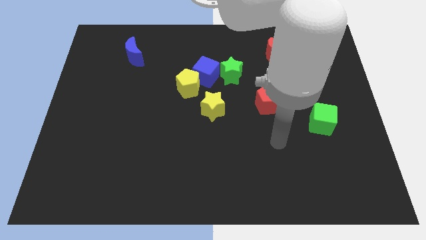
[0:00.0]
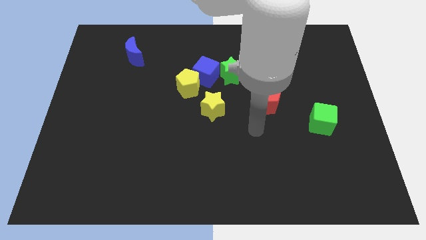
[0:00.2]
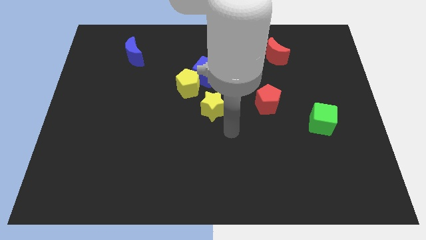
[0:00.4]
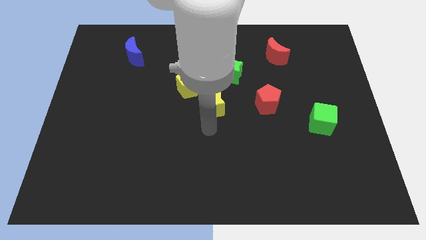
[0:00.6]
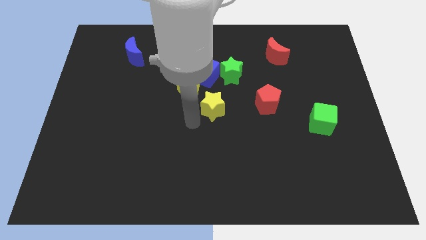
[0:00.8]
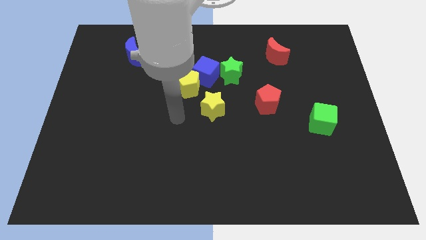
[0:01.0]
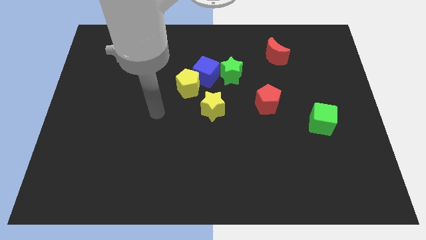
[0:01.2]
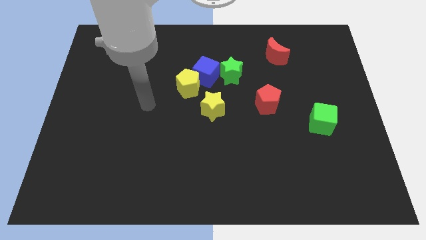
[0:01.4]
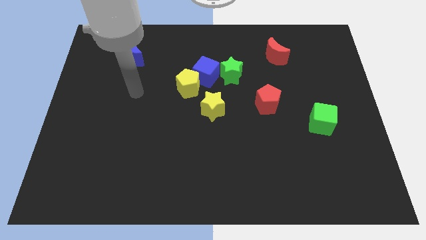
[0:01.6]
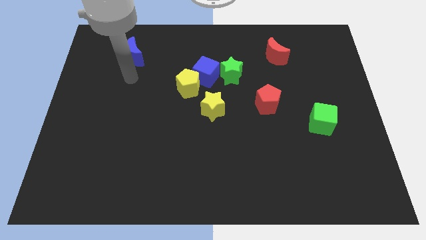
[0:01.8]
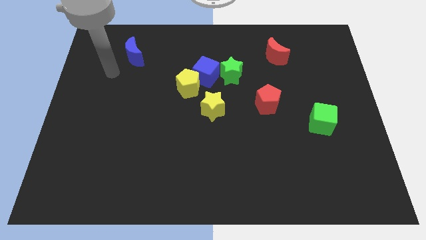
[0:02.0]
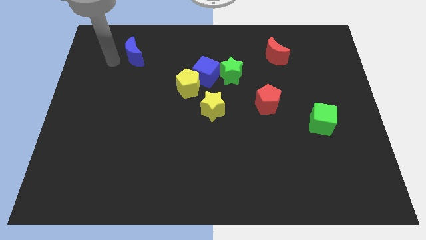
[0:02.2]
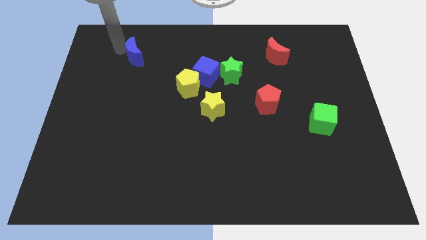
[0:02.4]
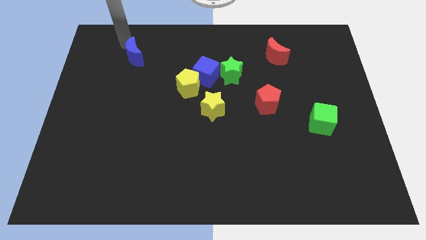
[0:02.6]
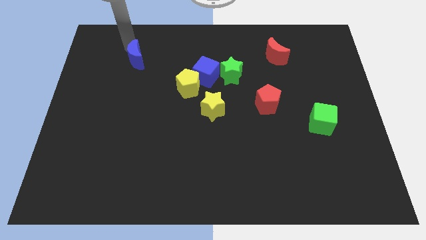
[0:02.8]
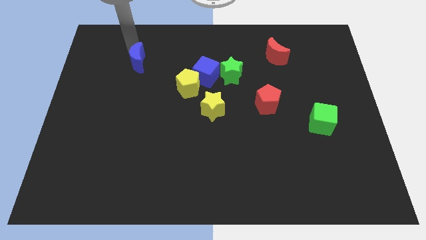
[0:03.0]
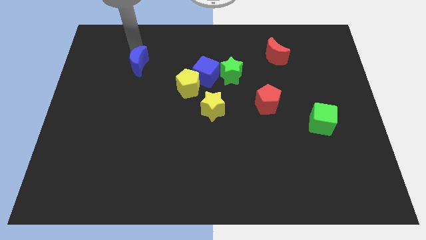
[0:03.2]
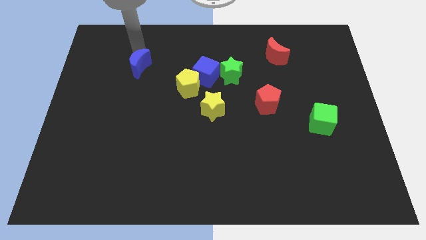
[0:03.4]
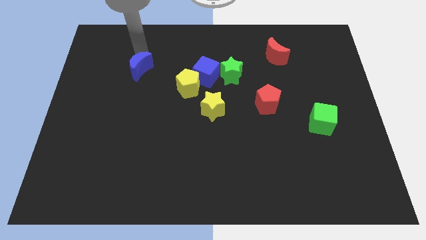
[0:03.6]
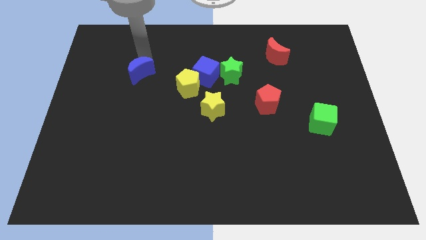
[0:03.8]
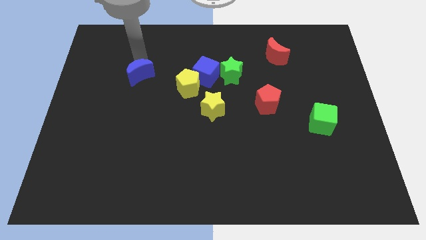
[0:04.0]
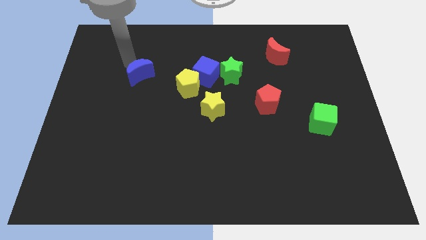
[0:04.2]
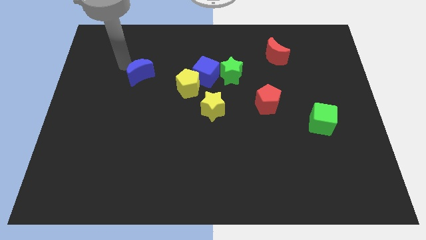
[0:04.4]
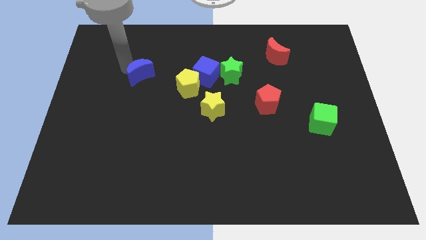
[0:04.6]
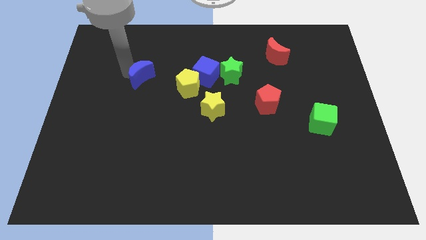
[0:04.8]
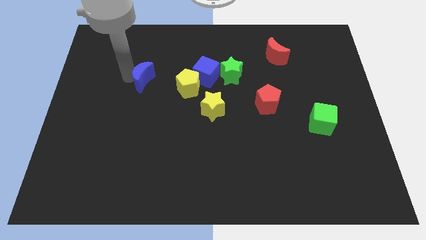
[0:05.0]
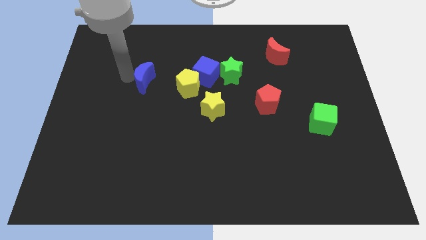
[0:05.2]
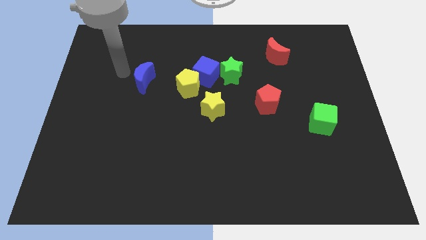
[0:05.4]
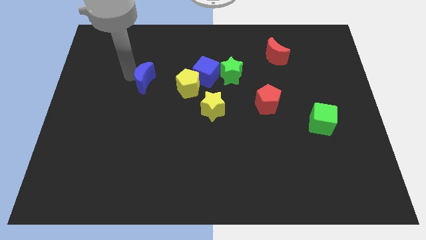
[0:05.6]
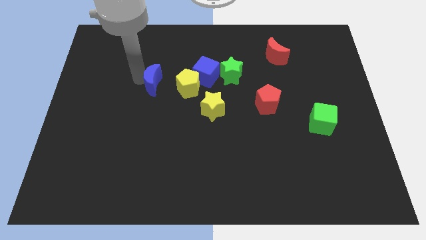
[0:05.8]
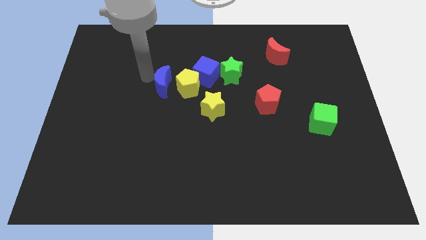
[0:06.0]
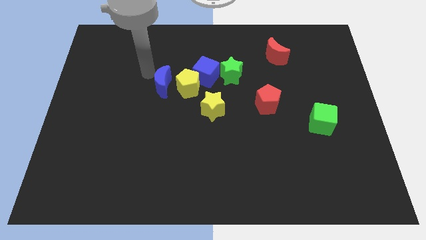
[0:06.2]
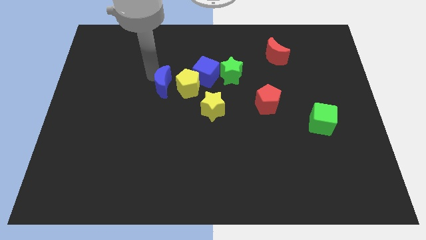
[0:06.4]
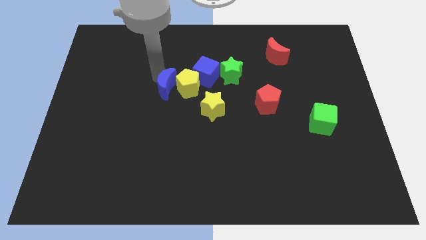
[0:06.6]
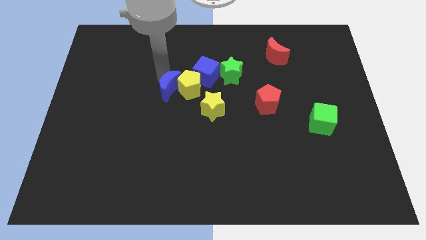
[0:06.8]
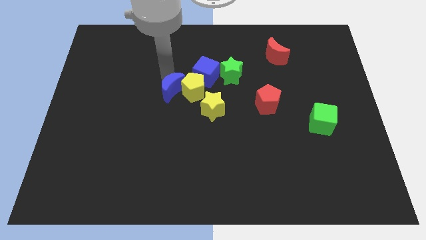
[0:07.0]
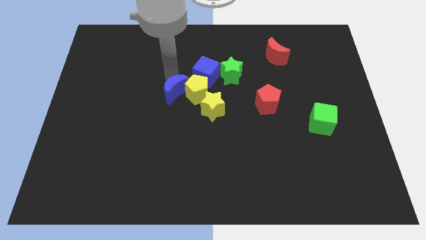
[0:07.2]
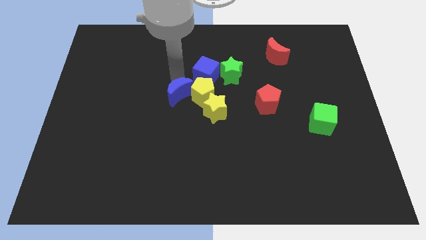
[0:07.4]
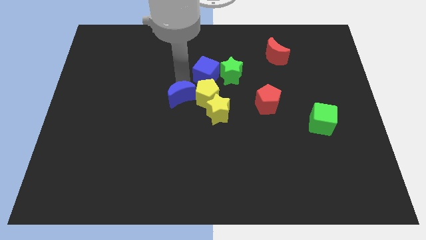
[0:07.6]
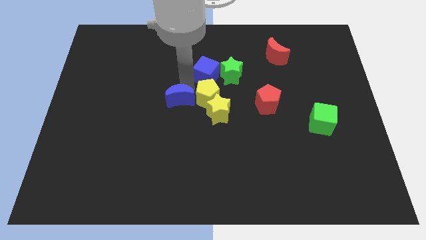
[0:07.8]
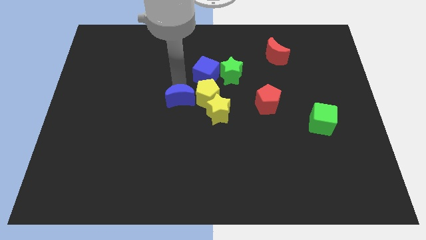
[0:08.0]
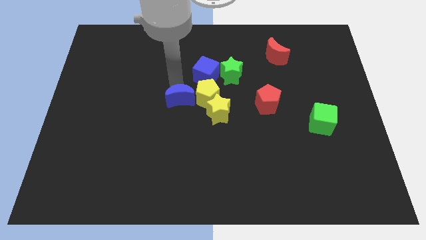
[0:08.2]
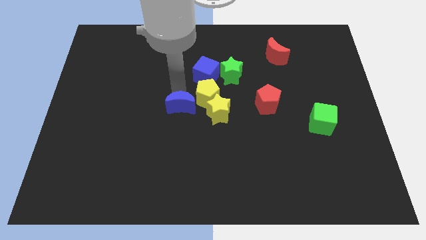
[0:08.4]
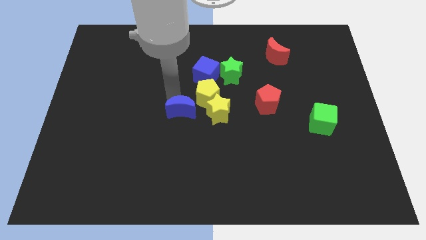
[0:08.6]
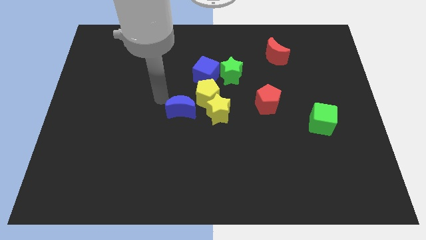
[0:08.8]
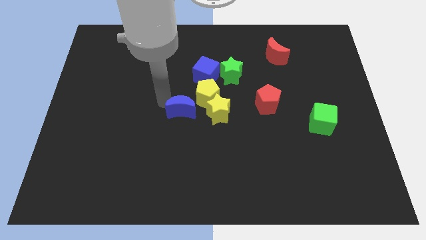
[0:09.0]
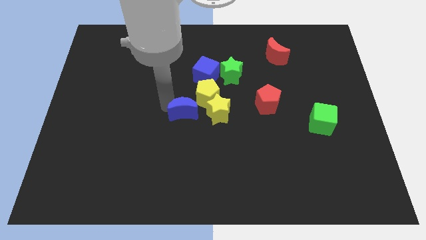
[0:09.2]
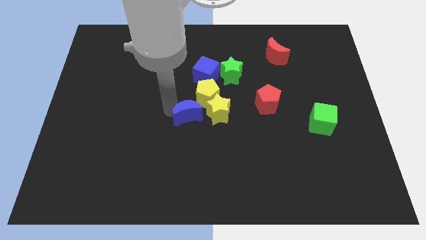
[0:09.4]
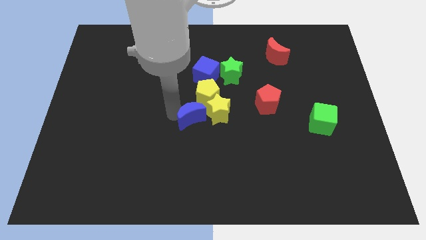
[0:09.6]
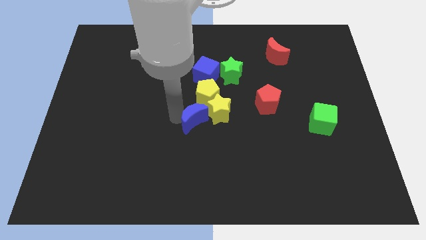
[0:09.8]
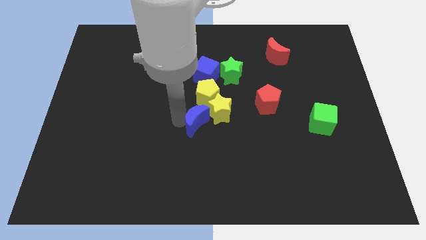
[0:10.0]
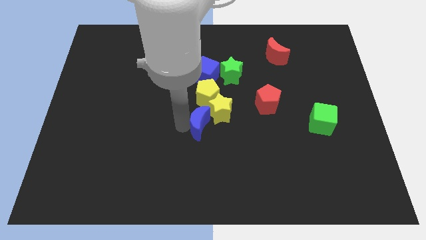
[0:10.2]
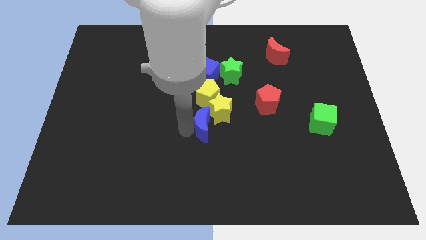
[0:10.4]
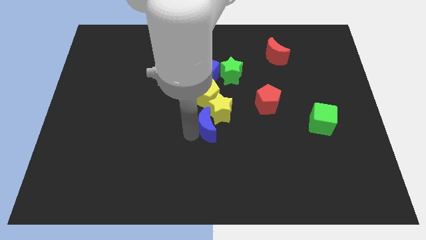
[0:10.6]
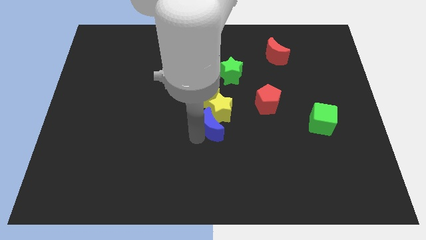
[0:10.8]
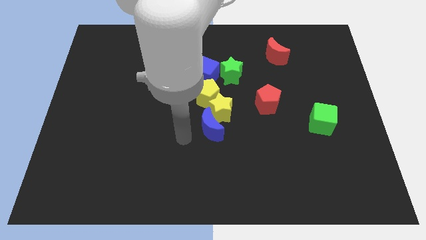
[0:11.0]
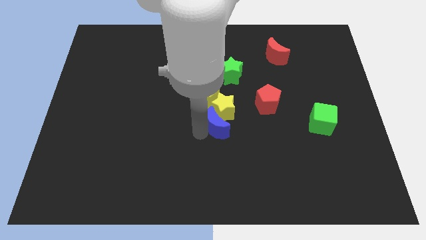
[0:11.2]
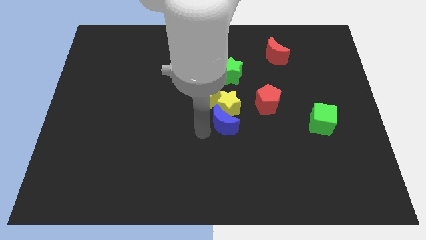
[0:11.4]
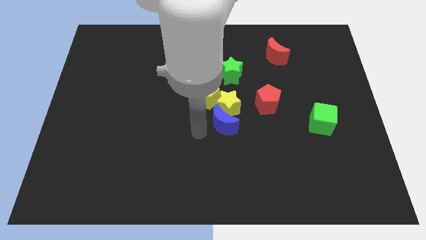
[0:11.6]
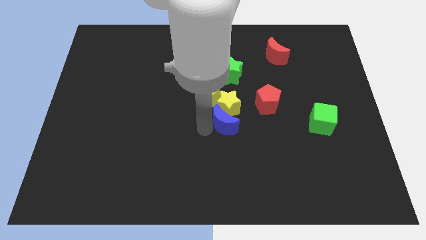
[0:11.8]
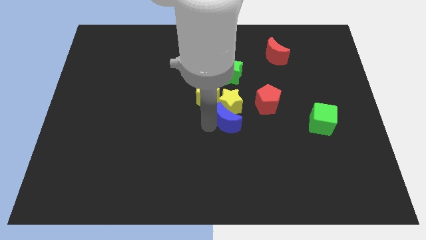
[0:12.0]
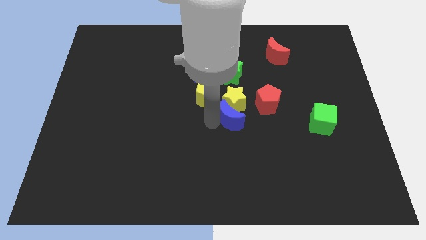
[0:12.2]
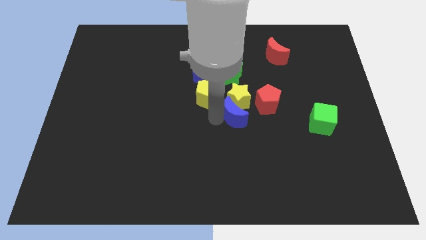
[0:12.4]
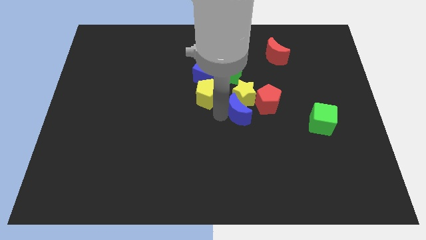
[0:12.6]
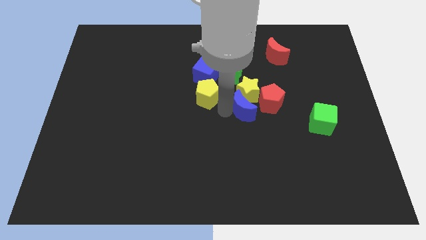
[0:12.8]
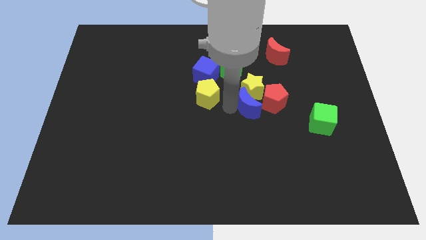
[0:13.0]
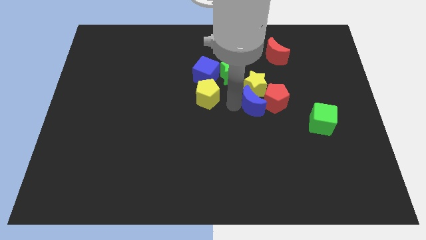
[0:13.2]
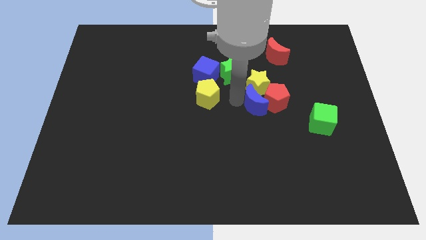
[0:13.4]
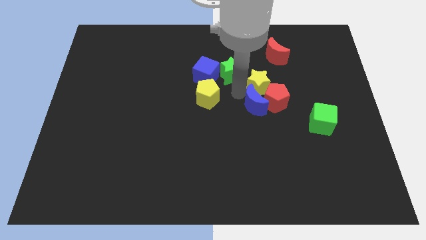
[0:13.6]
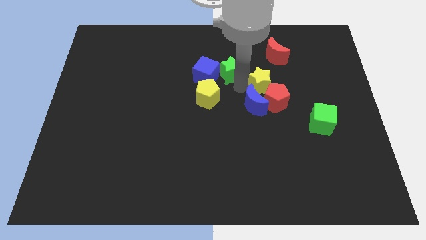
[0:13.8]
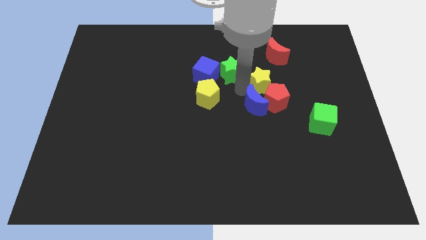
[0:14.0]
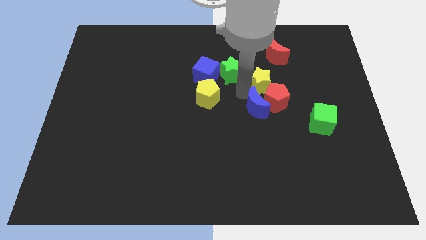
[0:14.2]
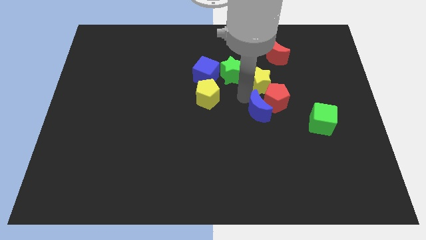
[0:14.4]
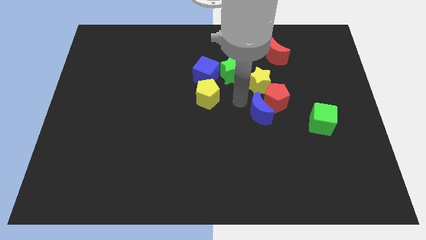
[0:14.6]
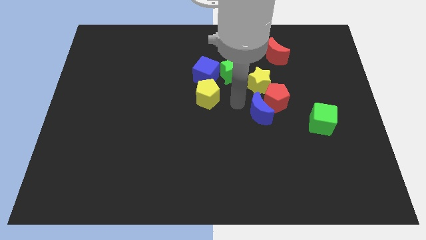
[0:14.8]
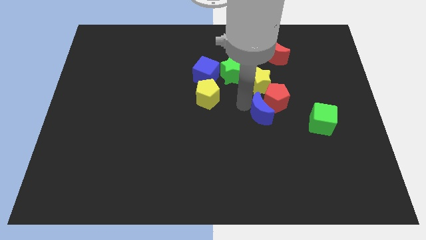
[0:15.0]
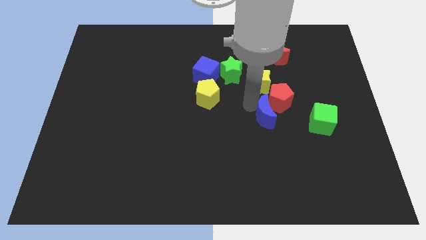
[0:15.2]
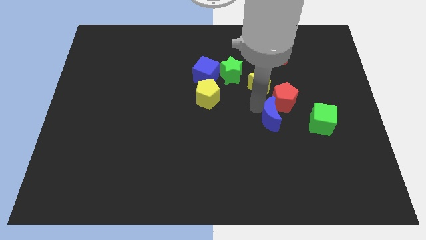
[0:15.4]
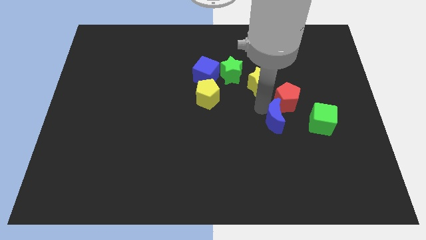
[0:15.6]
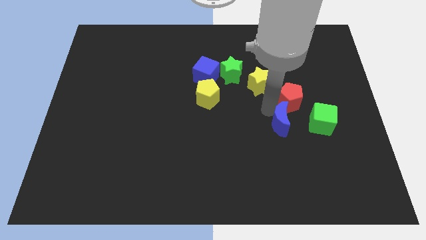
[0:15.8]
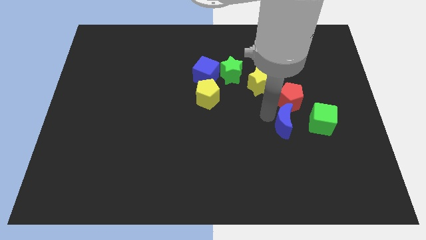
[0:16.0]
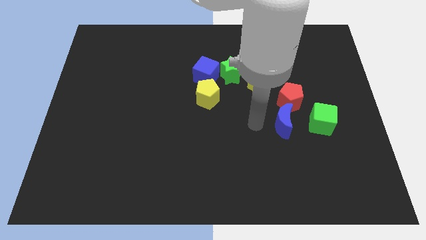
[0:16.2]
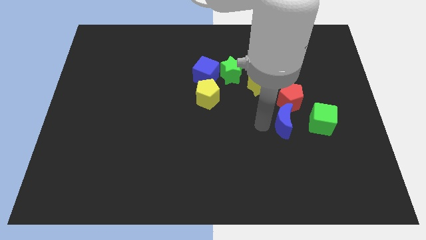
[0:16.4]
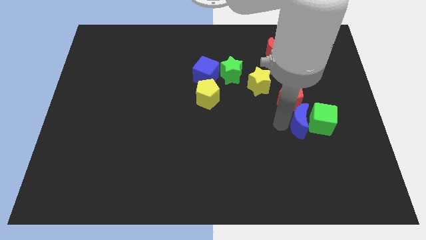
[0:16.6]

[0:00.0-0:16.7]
put the blue moon next to the green cube
